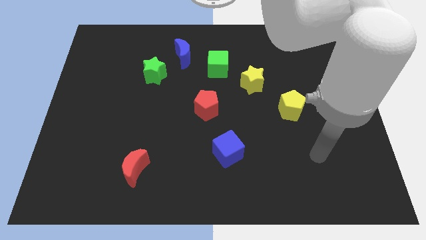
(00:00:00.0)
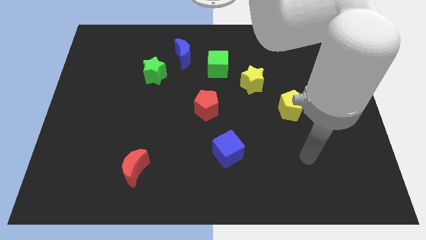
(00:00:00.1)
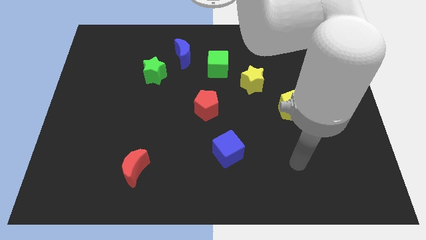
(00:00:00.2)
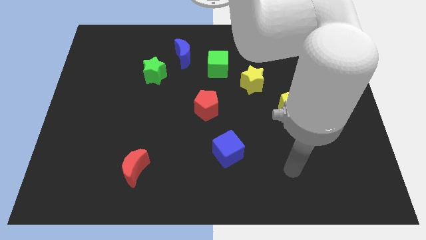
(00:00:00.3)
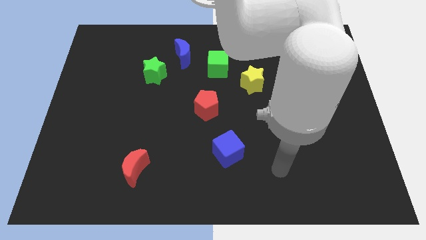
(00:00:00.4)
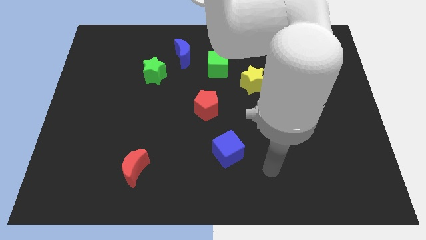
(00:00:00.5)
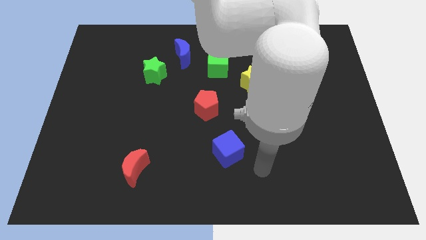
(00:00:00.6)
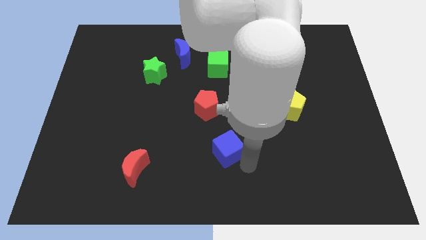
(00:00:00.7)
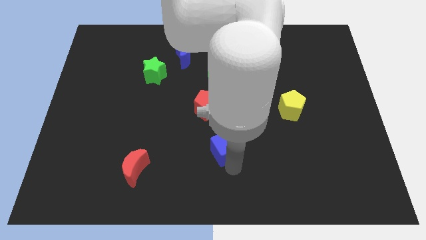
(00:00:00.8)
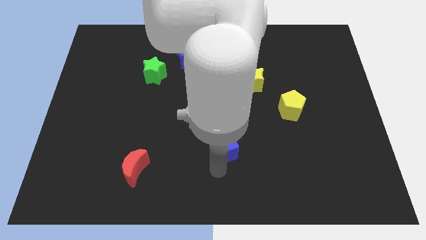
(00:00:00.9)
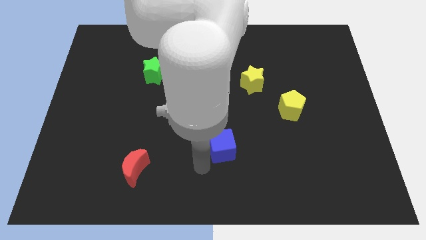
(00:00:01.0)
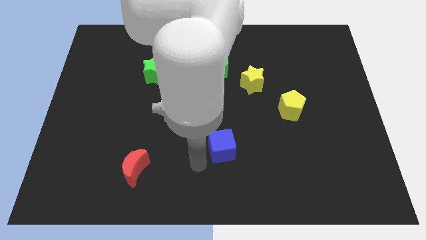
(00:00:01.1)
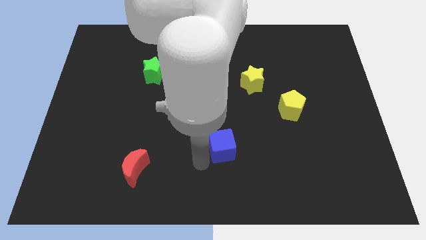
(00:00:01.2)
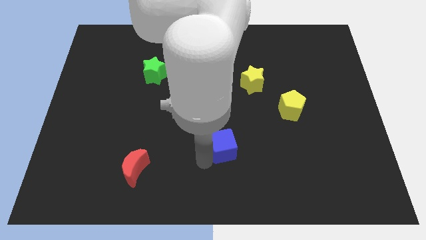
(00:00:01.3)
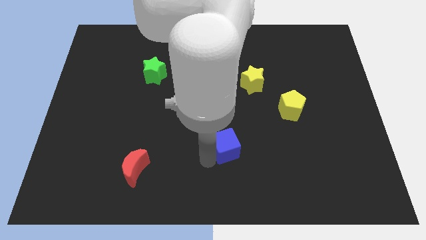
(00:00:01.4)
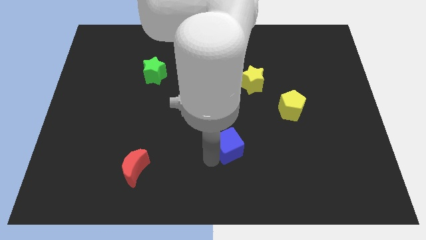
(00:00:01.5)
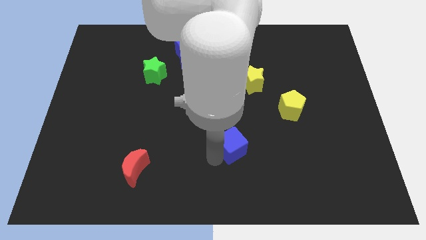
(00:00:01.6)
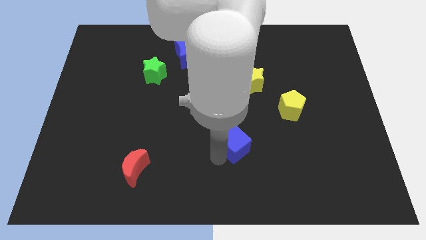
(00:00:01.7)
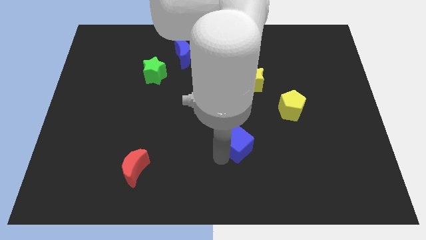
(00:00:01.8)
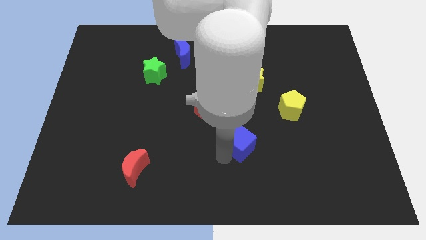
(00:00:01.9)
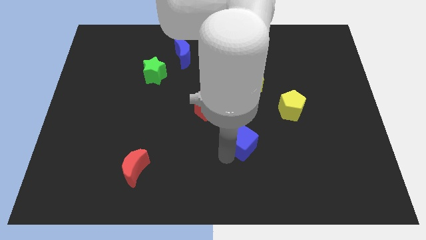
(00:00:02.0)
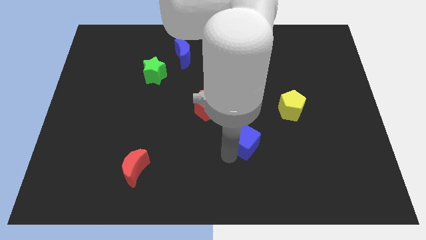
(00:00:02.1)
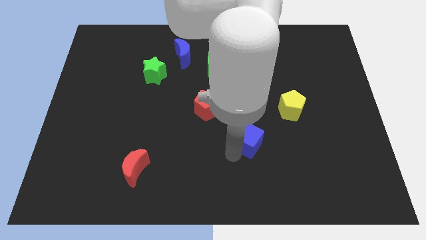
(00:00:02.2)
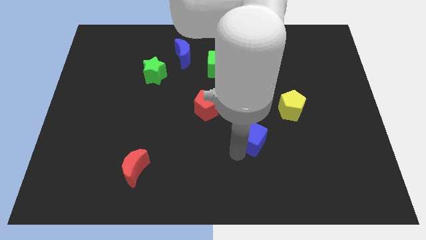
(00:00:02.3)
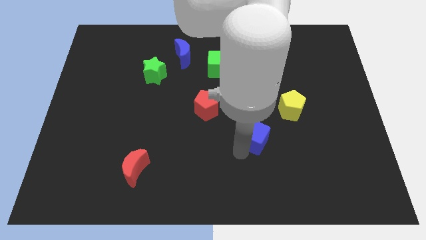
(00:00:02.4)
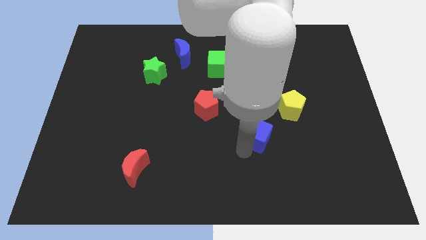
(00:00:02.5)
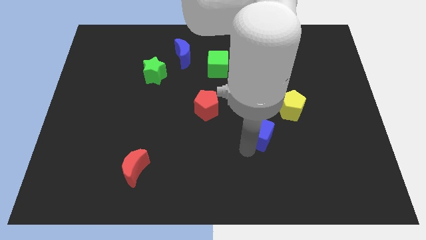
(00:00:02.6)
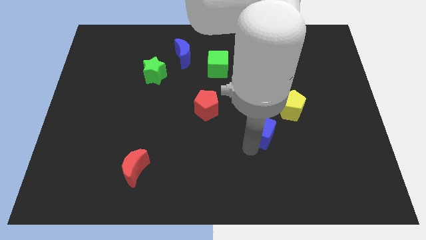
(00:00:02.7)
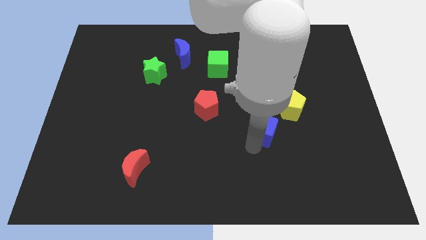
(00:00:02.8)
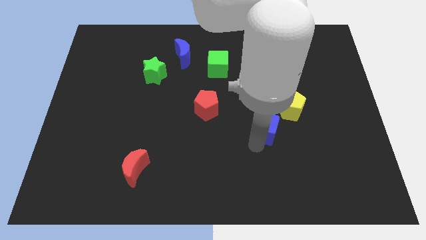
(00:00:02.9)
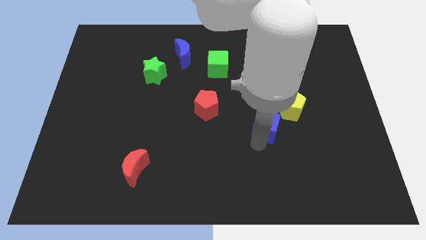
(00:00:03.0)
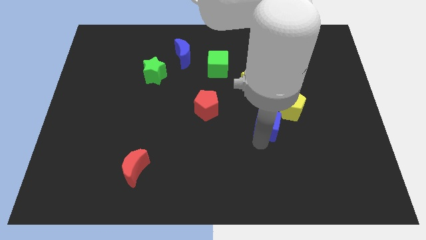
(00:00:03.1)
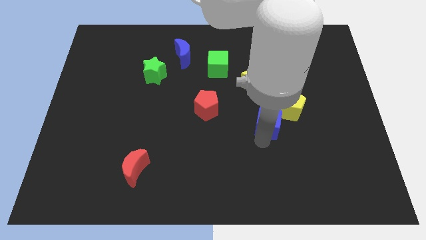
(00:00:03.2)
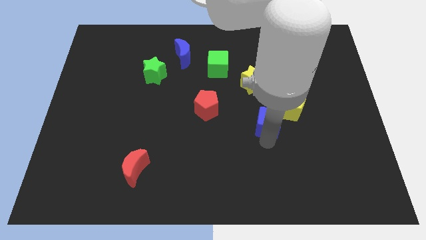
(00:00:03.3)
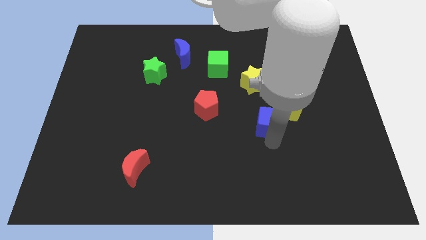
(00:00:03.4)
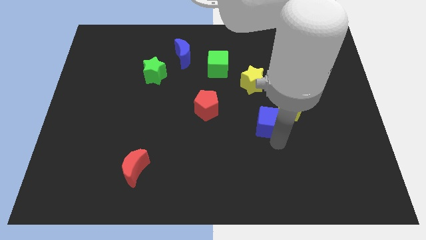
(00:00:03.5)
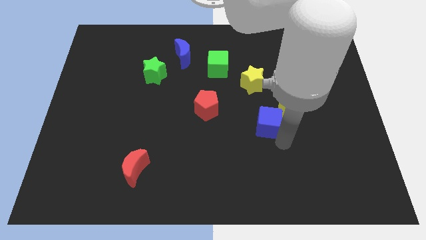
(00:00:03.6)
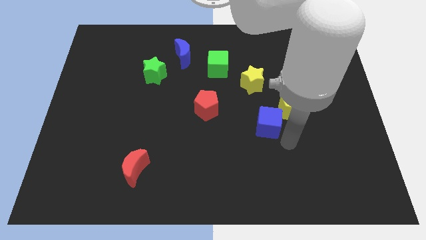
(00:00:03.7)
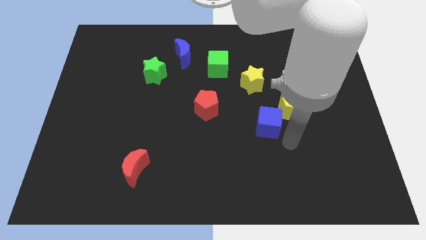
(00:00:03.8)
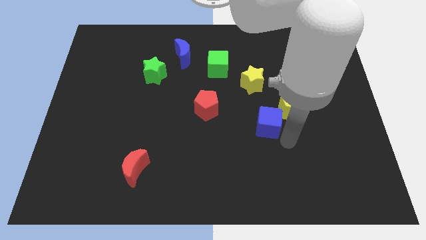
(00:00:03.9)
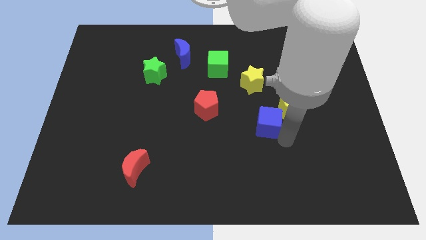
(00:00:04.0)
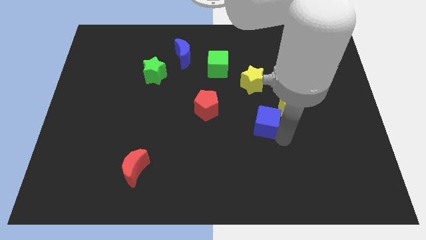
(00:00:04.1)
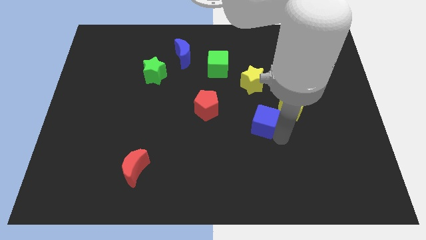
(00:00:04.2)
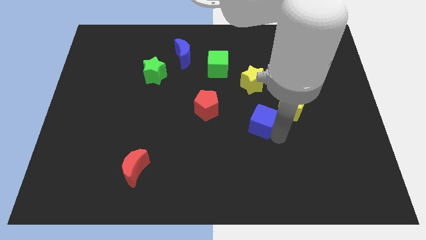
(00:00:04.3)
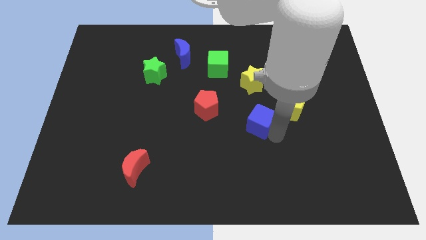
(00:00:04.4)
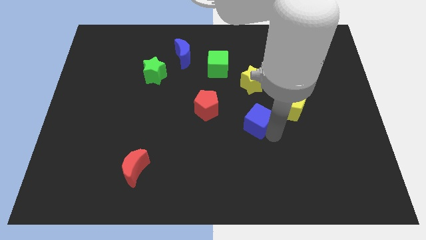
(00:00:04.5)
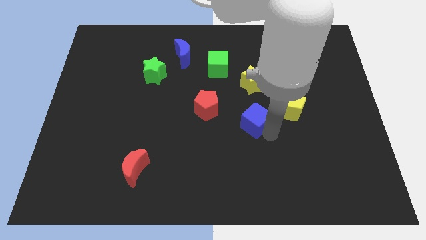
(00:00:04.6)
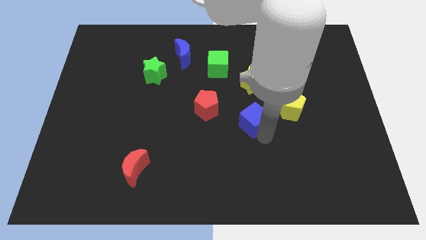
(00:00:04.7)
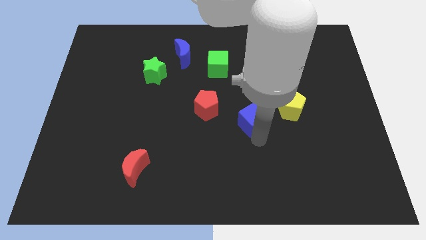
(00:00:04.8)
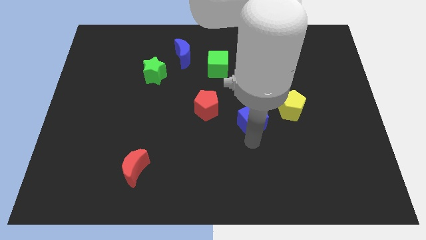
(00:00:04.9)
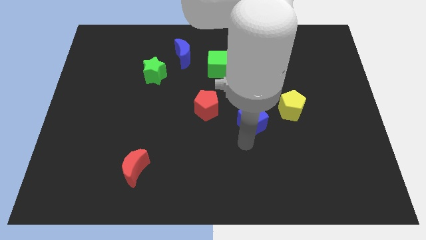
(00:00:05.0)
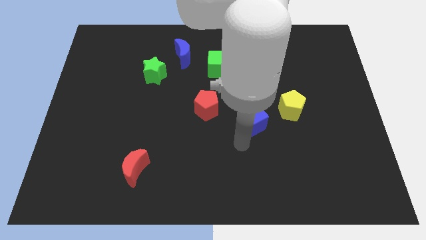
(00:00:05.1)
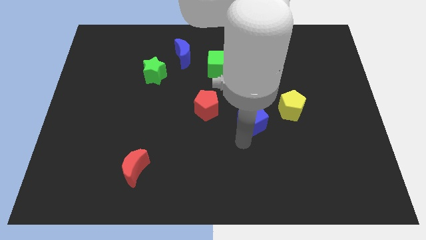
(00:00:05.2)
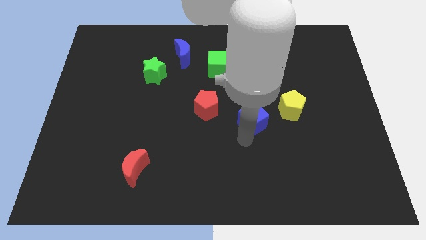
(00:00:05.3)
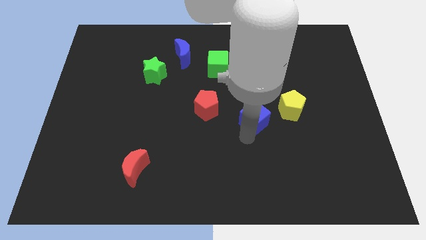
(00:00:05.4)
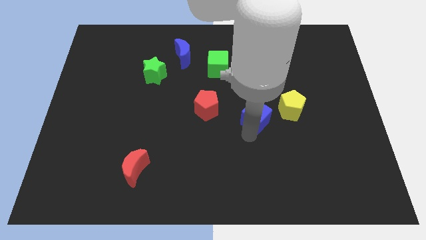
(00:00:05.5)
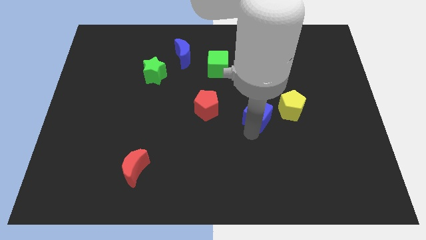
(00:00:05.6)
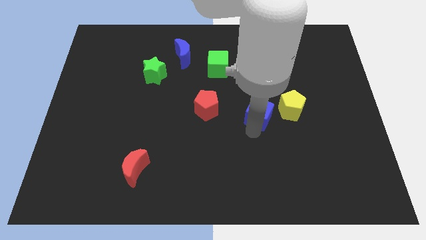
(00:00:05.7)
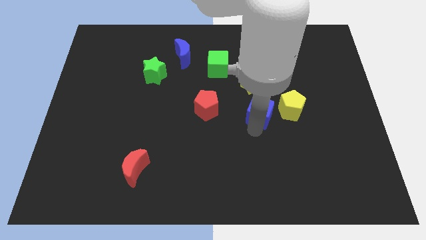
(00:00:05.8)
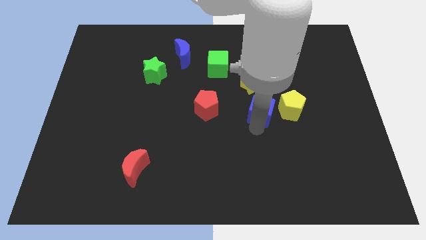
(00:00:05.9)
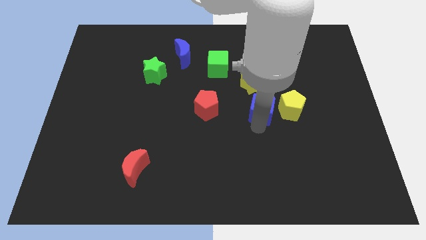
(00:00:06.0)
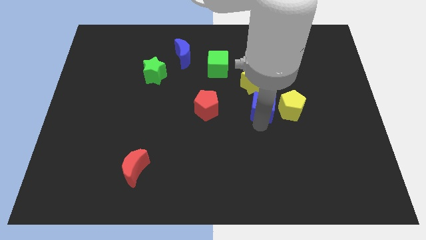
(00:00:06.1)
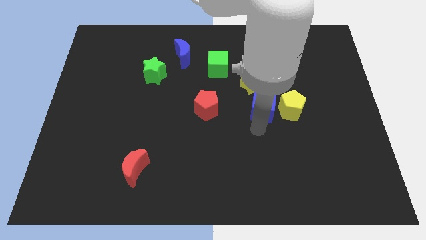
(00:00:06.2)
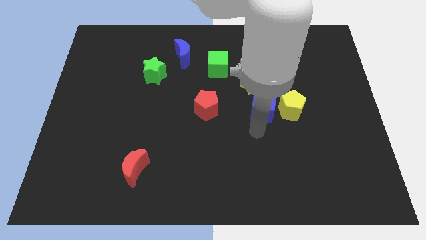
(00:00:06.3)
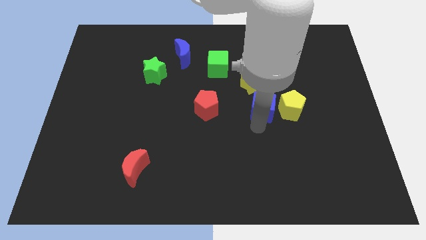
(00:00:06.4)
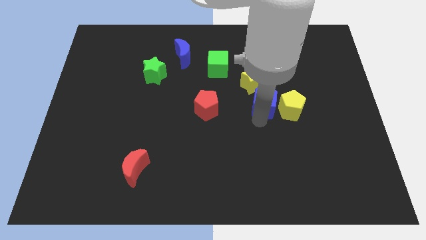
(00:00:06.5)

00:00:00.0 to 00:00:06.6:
push the blue cube diagonally up and to the left of the yellow pentagon
